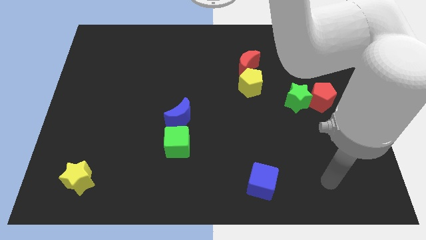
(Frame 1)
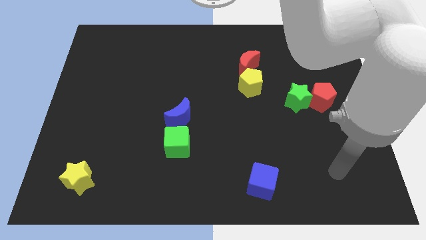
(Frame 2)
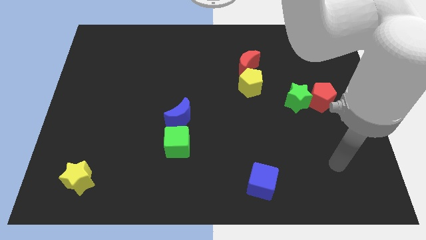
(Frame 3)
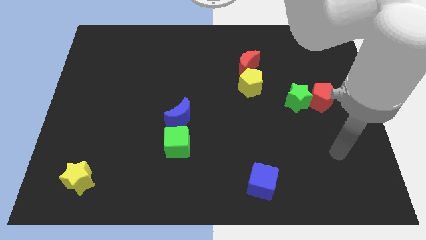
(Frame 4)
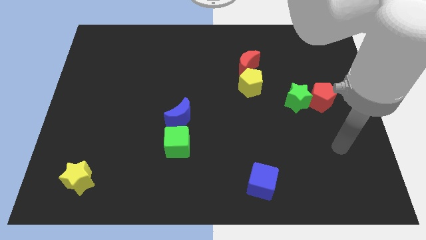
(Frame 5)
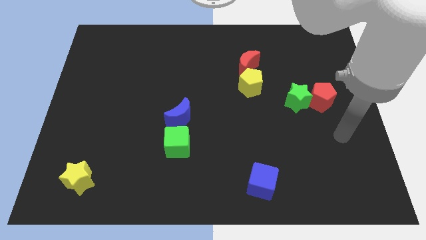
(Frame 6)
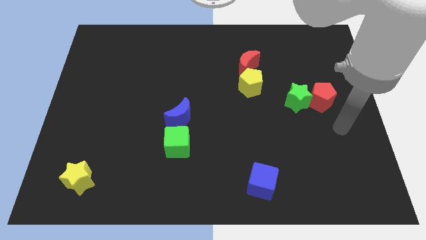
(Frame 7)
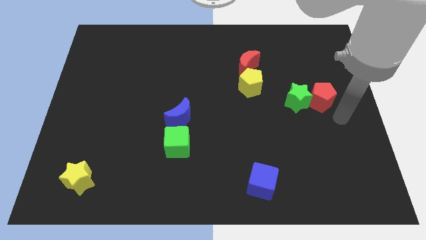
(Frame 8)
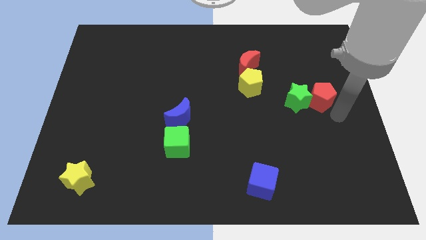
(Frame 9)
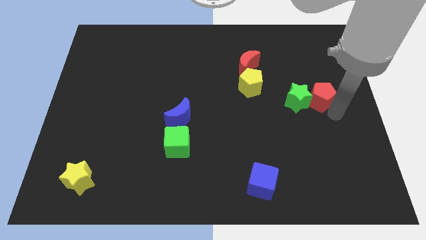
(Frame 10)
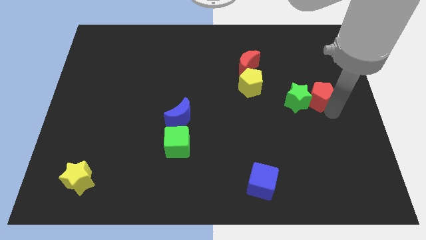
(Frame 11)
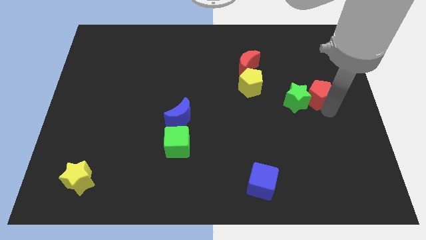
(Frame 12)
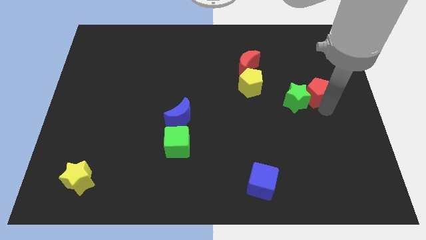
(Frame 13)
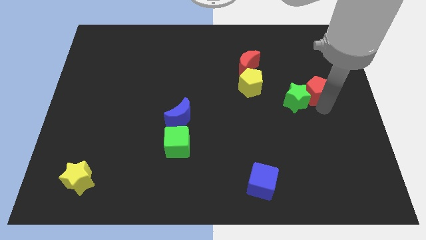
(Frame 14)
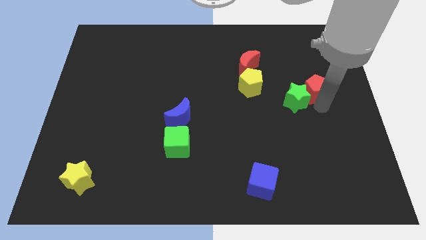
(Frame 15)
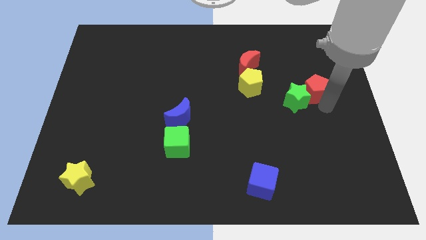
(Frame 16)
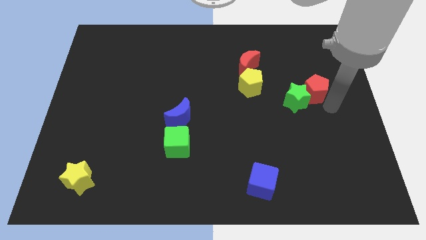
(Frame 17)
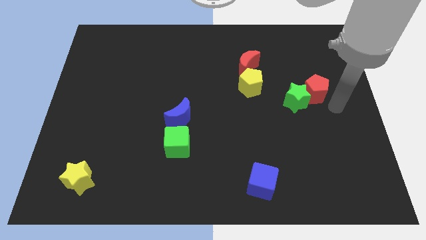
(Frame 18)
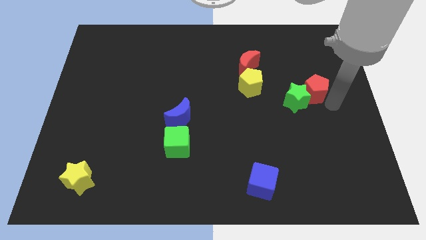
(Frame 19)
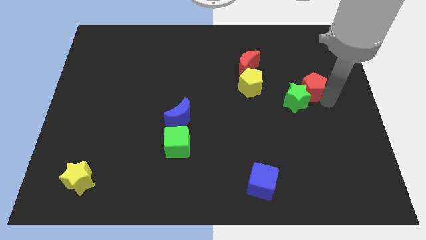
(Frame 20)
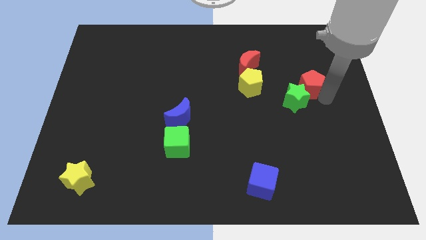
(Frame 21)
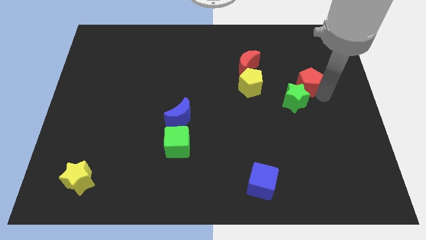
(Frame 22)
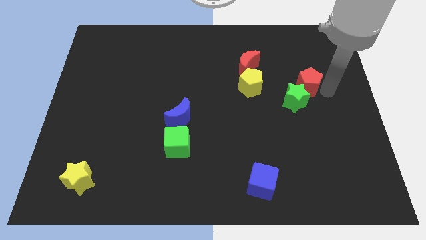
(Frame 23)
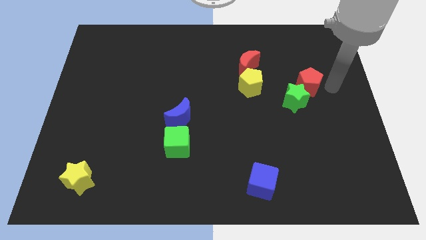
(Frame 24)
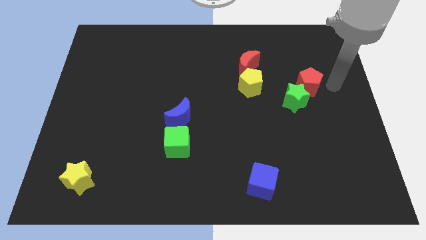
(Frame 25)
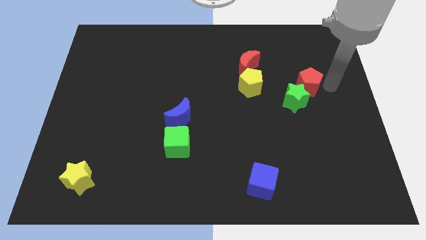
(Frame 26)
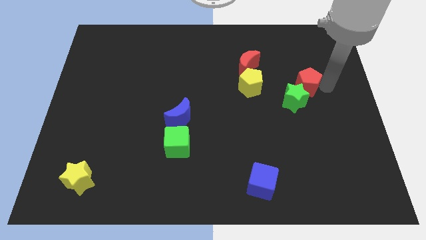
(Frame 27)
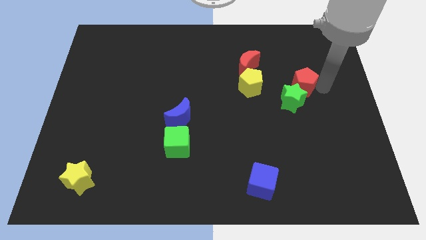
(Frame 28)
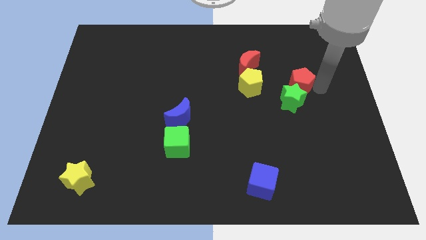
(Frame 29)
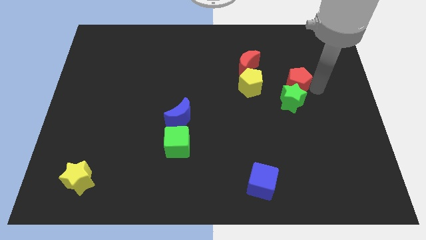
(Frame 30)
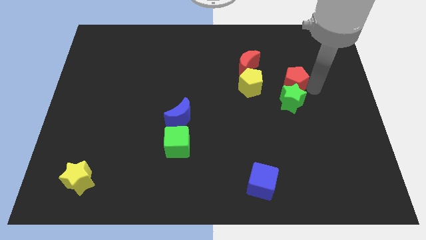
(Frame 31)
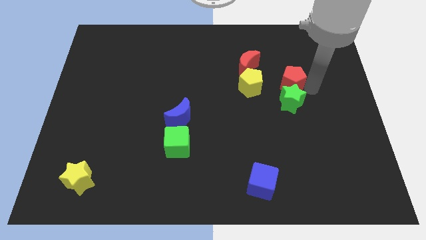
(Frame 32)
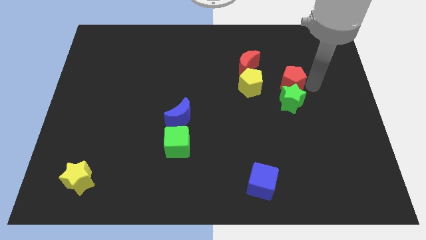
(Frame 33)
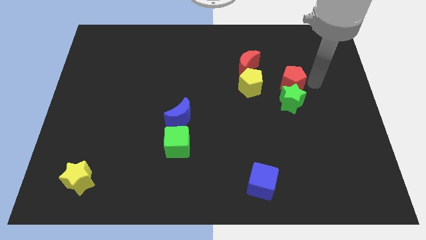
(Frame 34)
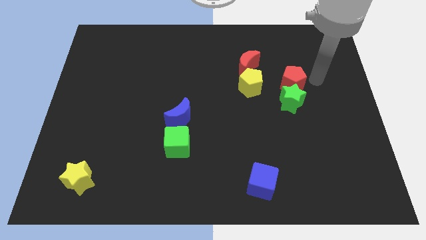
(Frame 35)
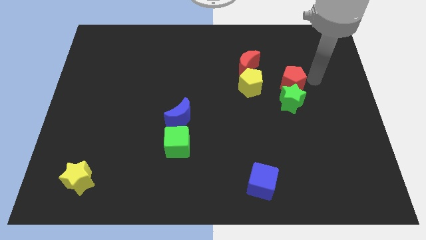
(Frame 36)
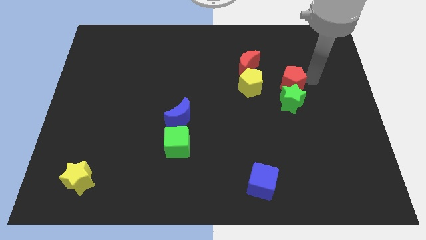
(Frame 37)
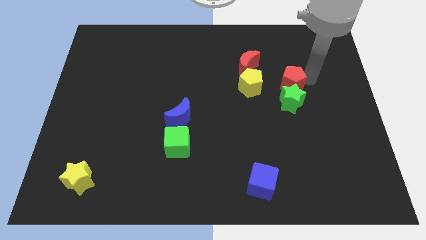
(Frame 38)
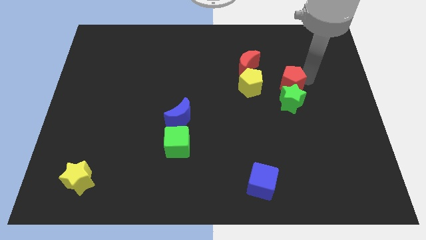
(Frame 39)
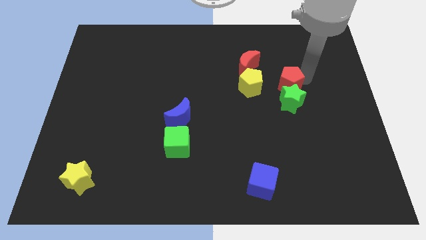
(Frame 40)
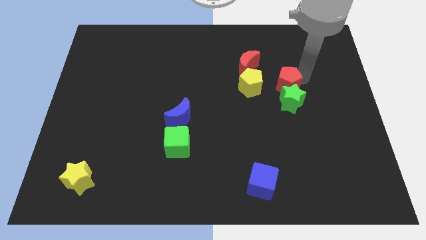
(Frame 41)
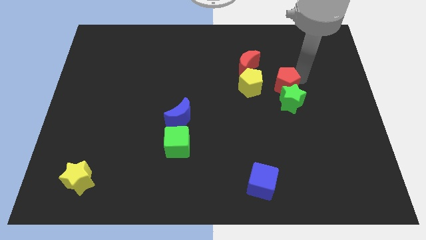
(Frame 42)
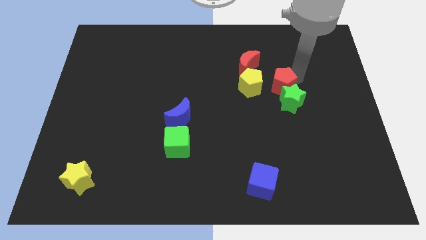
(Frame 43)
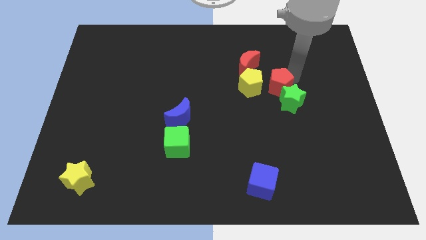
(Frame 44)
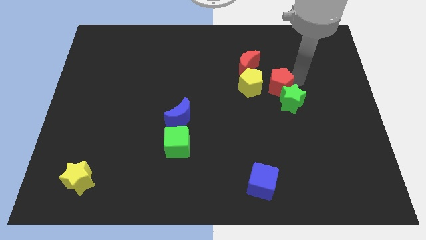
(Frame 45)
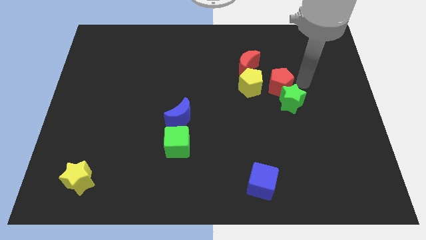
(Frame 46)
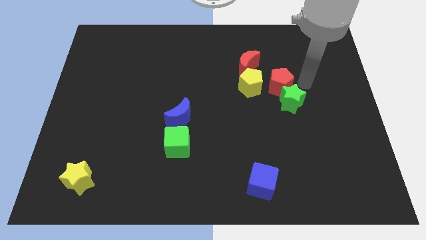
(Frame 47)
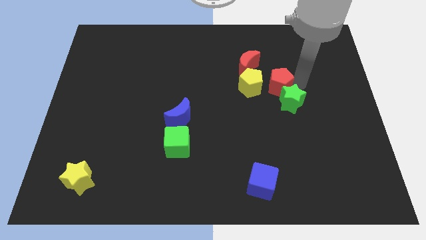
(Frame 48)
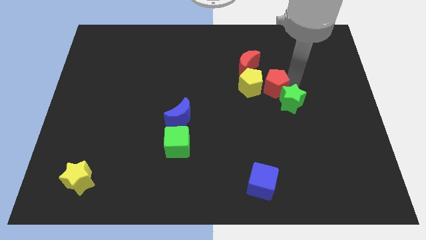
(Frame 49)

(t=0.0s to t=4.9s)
put the red pentagon next to the yellow pentagon

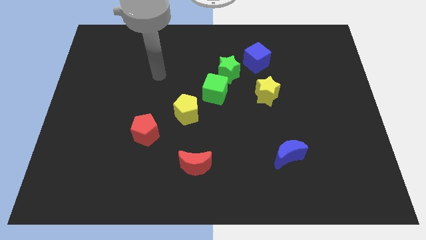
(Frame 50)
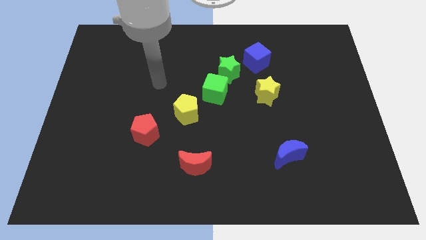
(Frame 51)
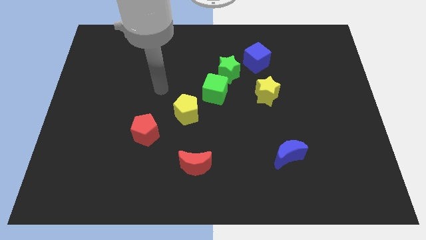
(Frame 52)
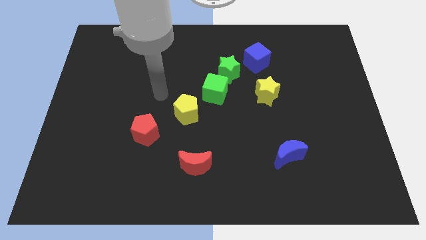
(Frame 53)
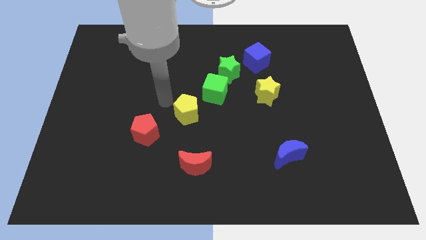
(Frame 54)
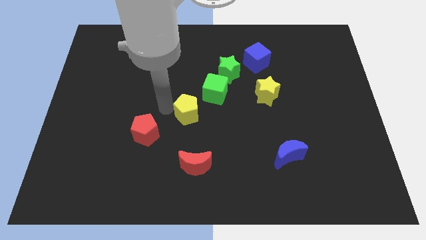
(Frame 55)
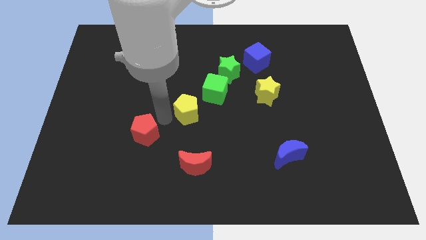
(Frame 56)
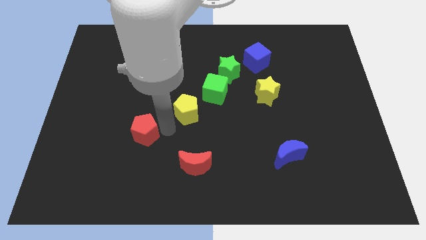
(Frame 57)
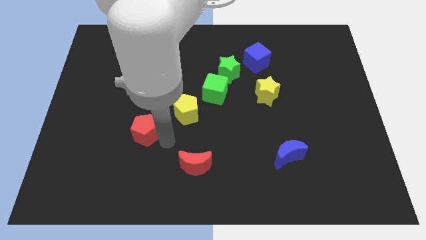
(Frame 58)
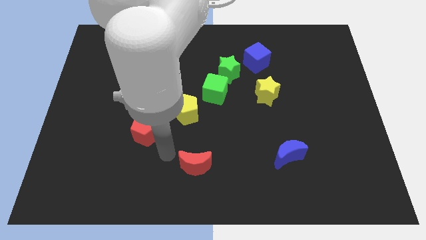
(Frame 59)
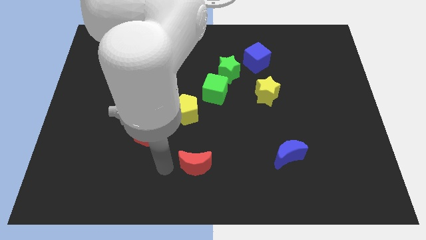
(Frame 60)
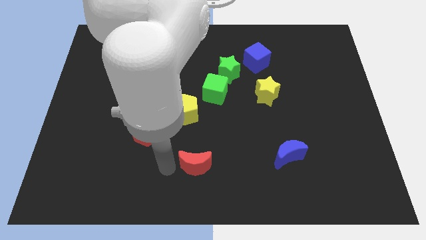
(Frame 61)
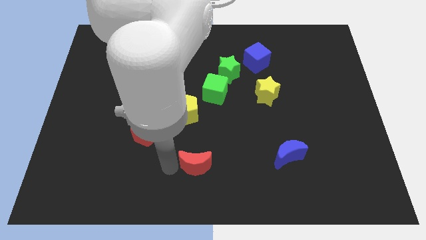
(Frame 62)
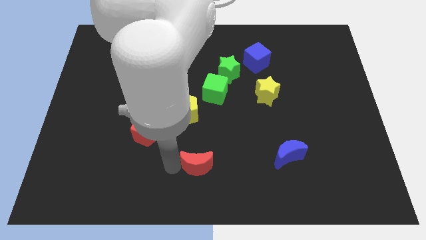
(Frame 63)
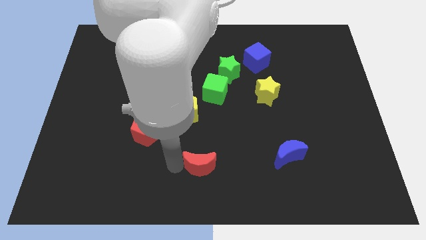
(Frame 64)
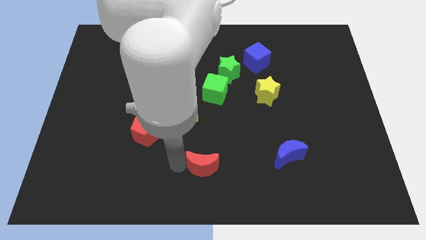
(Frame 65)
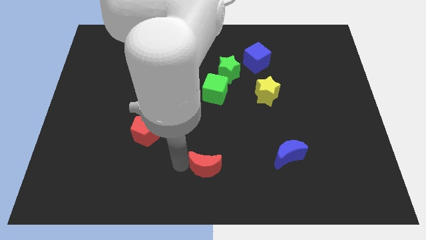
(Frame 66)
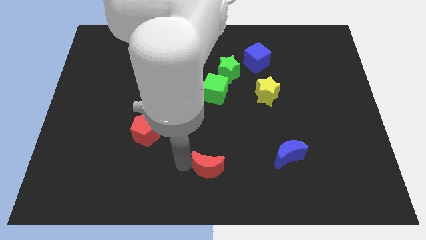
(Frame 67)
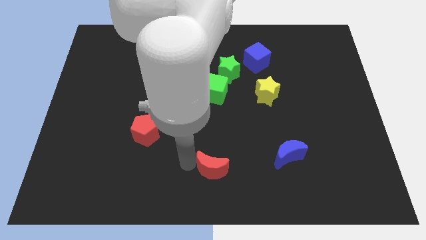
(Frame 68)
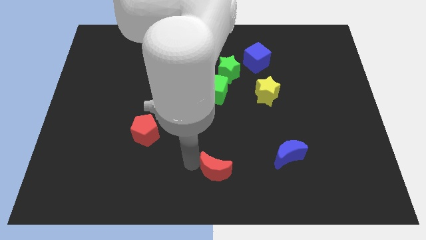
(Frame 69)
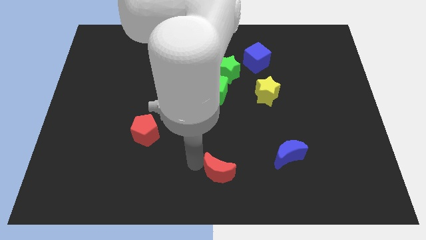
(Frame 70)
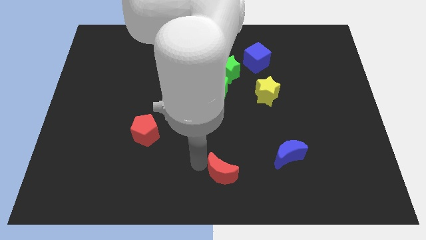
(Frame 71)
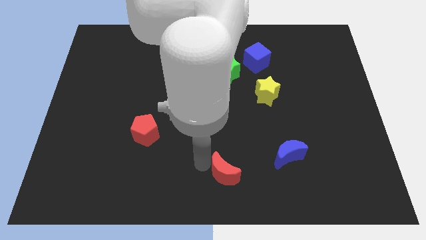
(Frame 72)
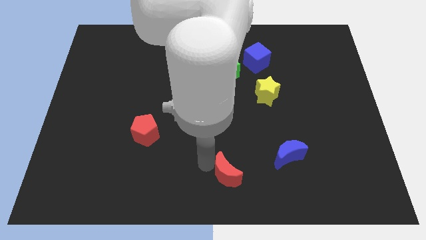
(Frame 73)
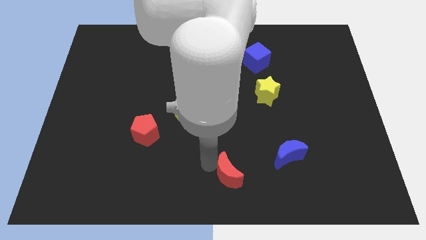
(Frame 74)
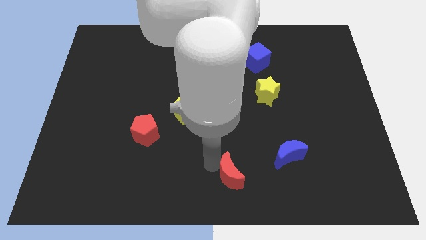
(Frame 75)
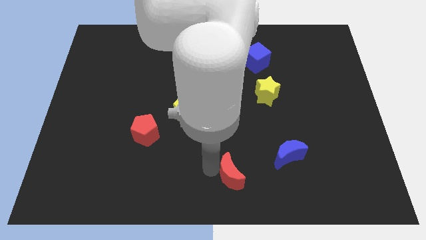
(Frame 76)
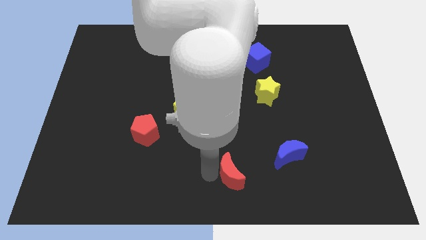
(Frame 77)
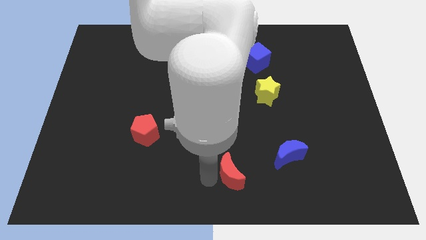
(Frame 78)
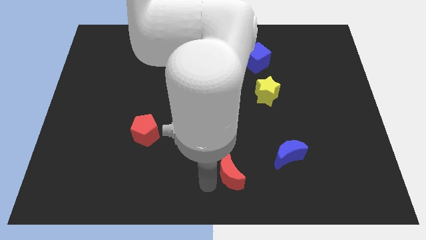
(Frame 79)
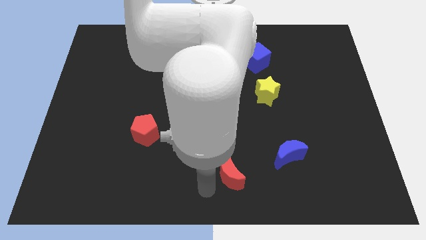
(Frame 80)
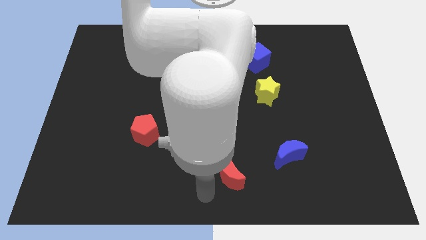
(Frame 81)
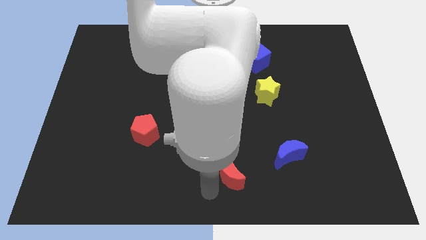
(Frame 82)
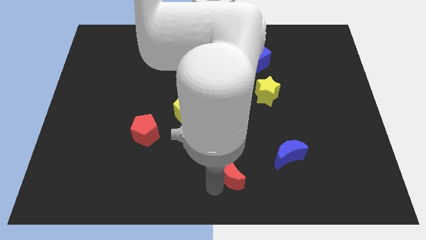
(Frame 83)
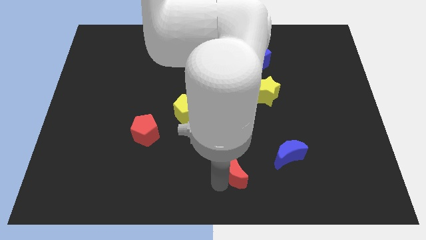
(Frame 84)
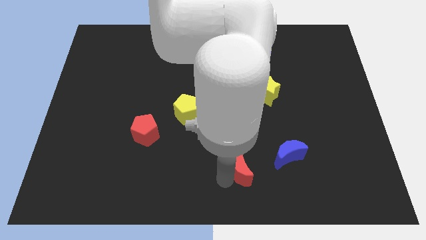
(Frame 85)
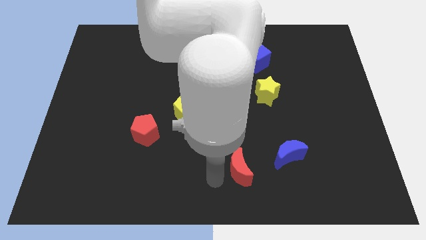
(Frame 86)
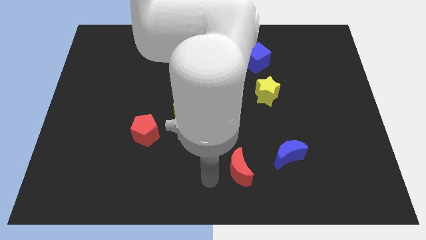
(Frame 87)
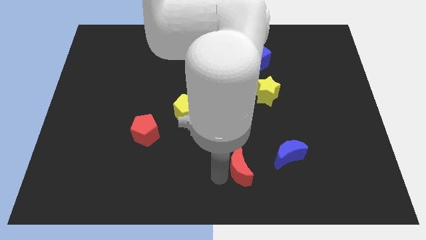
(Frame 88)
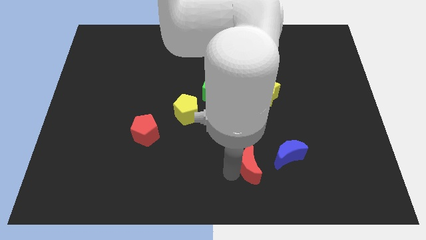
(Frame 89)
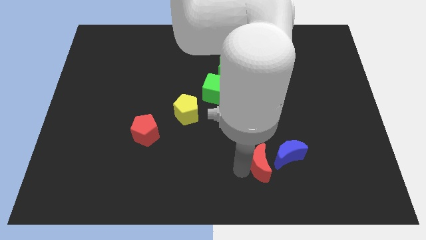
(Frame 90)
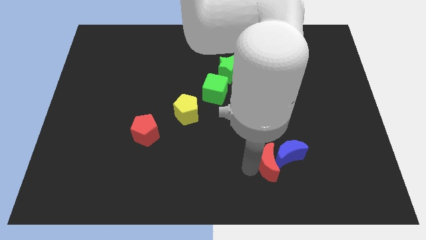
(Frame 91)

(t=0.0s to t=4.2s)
move the red moon to the blue moon
